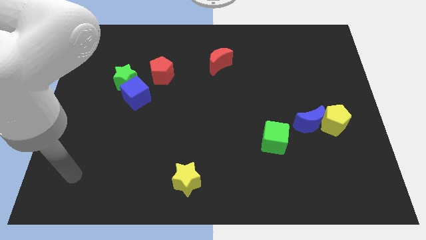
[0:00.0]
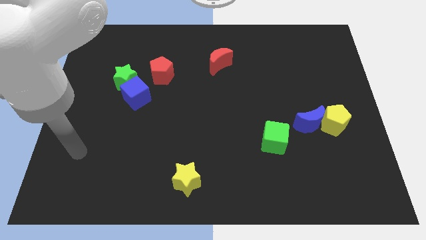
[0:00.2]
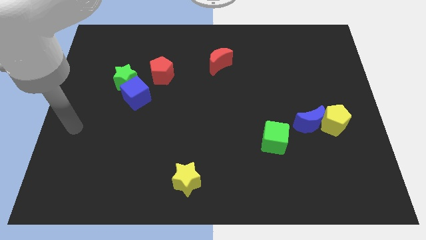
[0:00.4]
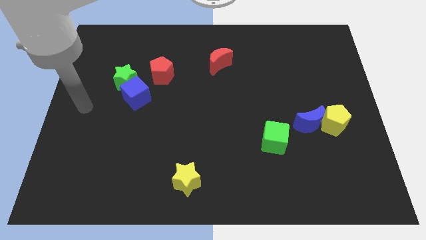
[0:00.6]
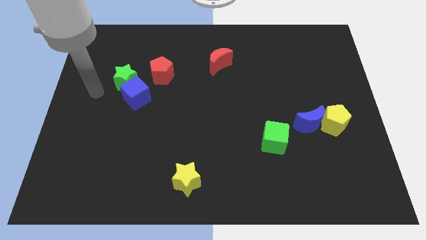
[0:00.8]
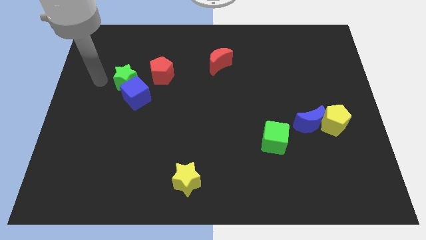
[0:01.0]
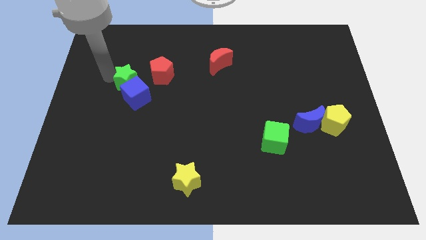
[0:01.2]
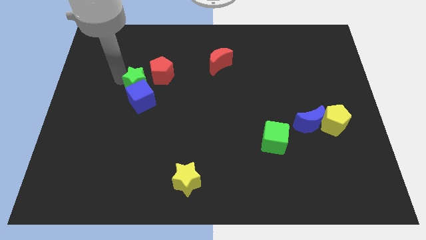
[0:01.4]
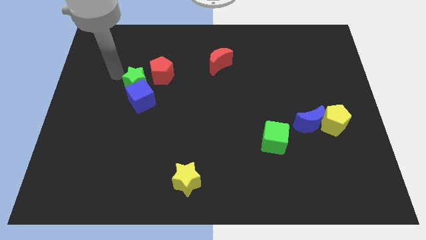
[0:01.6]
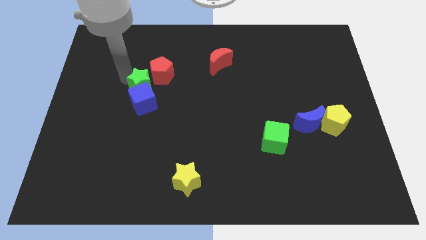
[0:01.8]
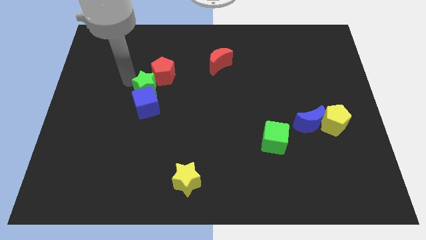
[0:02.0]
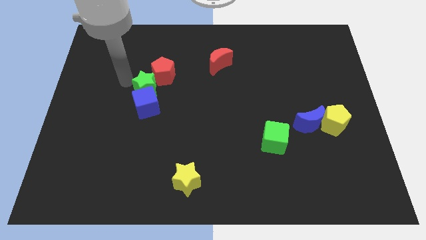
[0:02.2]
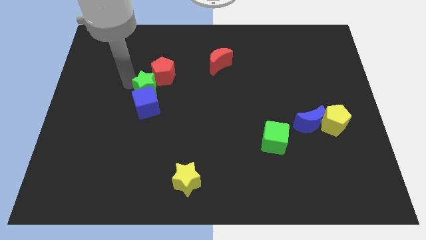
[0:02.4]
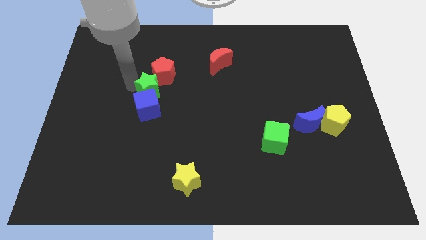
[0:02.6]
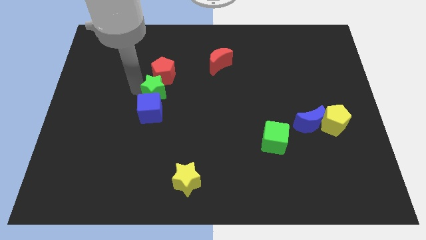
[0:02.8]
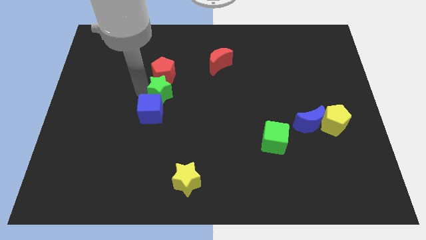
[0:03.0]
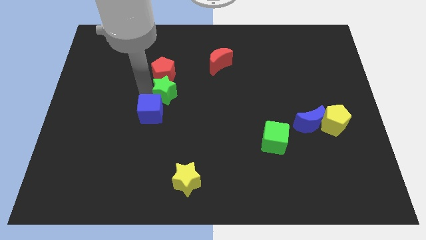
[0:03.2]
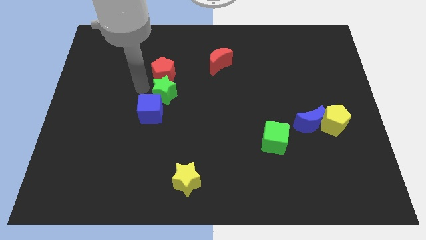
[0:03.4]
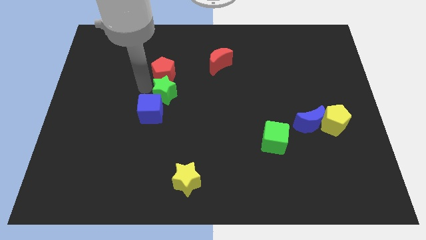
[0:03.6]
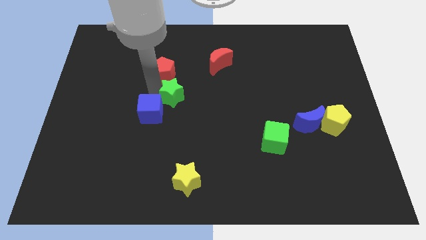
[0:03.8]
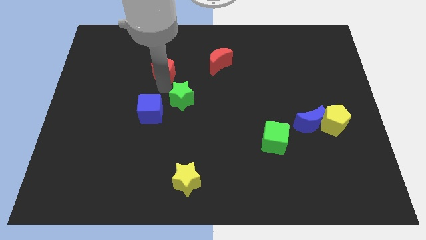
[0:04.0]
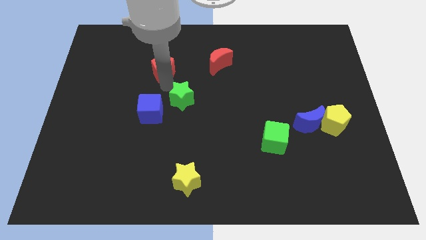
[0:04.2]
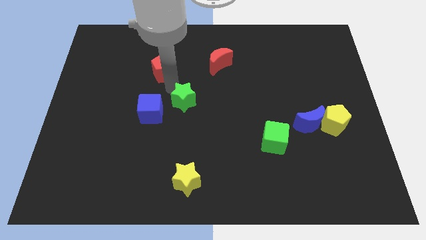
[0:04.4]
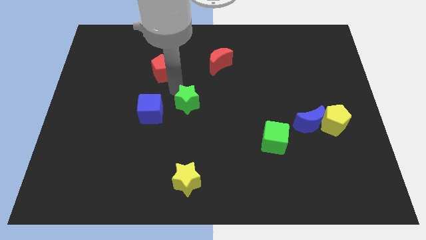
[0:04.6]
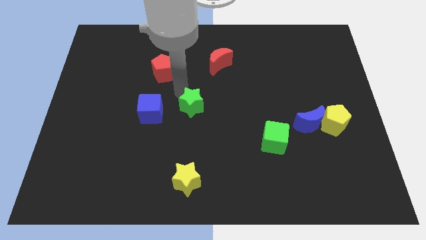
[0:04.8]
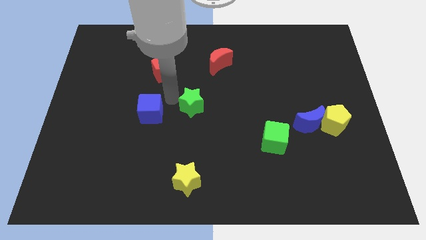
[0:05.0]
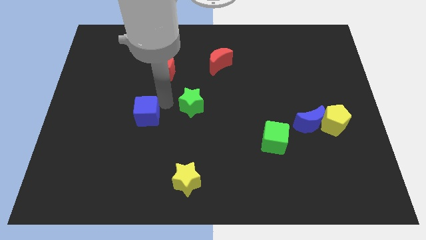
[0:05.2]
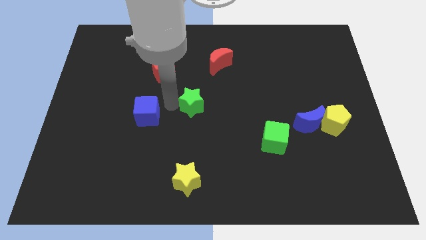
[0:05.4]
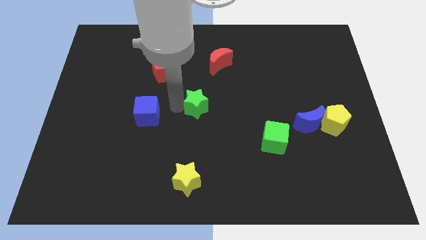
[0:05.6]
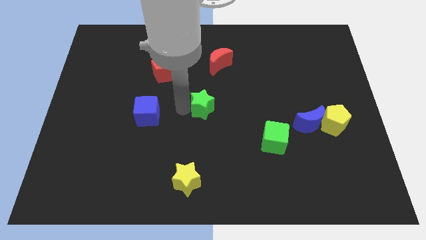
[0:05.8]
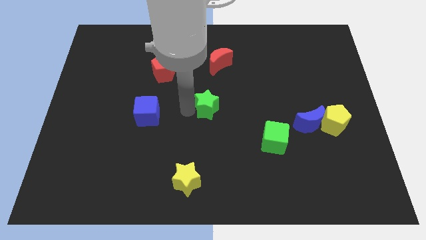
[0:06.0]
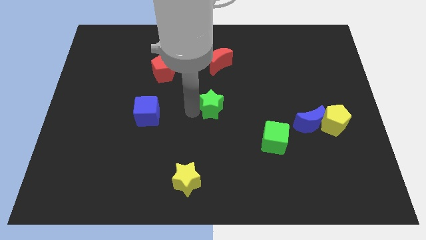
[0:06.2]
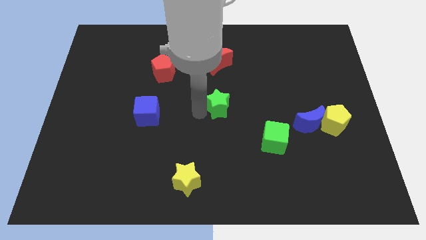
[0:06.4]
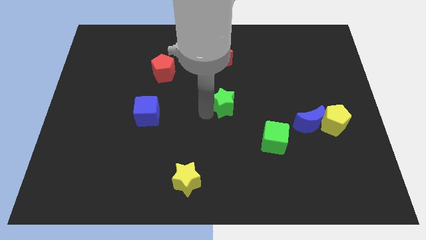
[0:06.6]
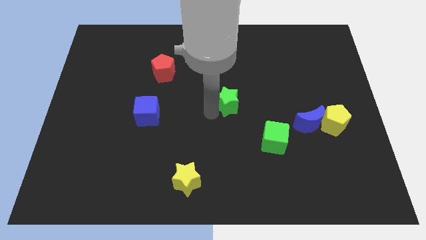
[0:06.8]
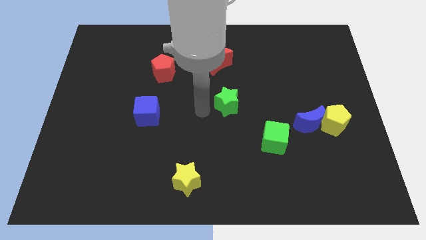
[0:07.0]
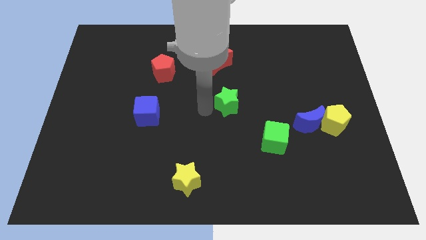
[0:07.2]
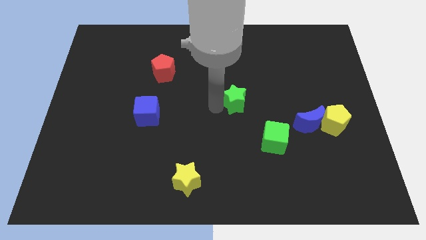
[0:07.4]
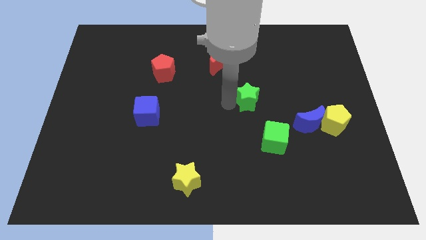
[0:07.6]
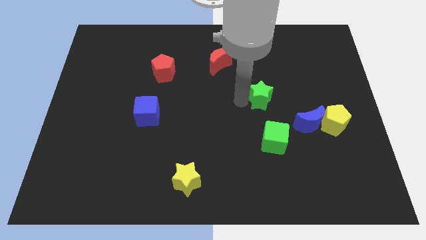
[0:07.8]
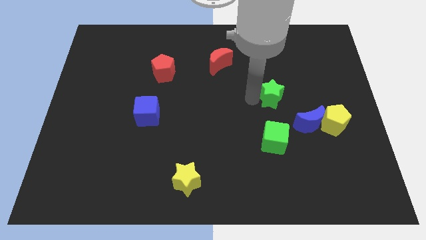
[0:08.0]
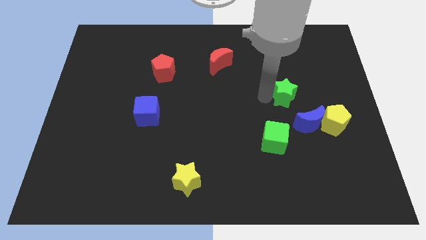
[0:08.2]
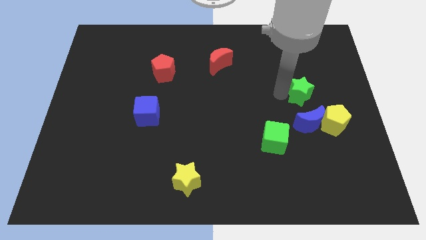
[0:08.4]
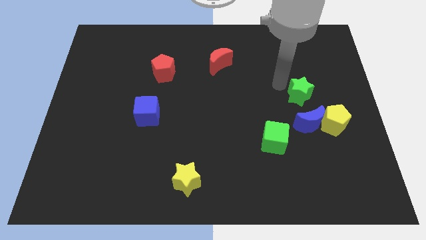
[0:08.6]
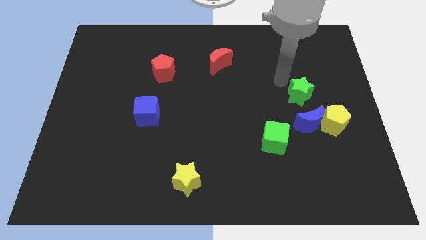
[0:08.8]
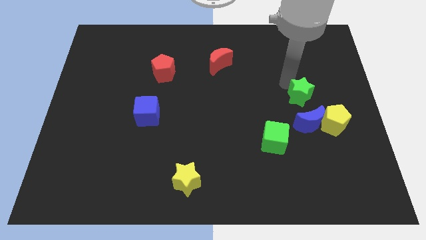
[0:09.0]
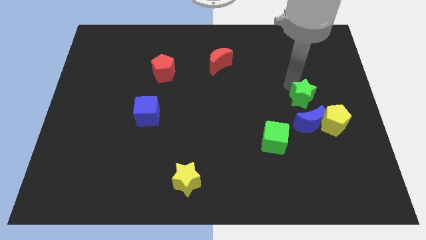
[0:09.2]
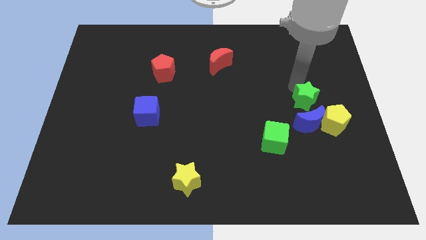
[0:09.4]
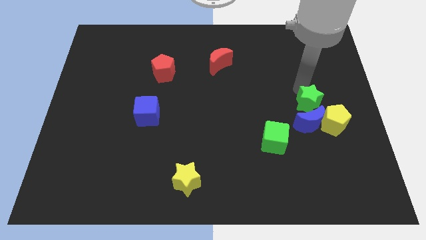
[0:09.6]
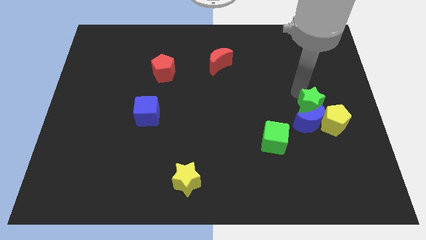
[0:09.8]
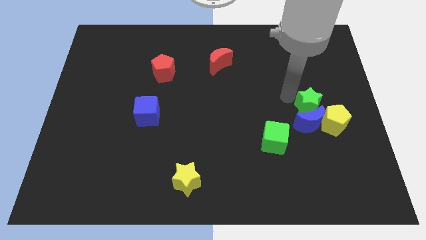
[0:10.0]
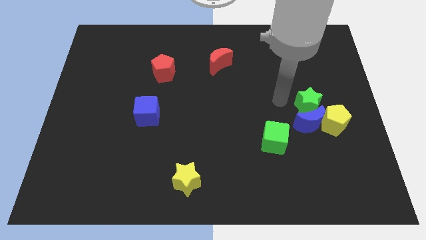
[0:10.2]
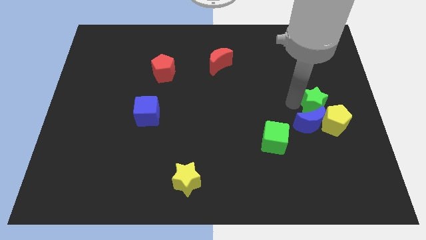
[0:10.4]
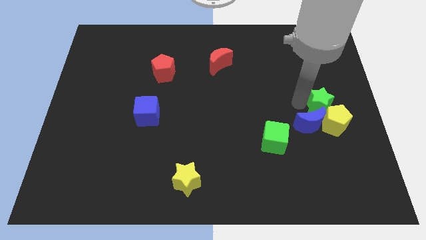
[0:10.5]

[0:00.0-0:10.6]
slide the green star to the right side of the board

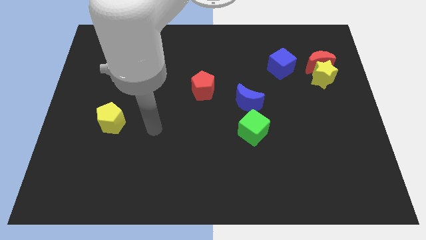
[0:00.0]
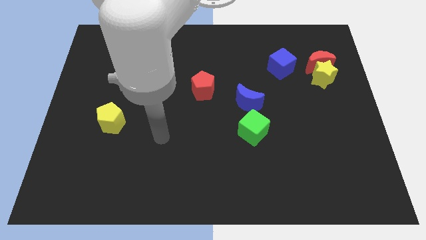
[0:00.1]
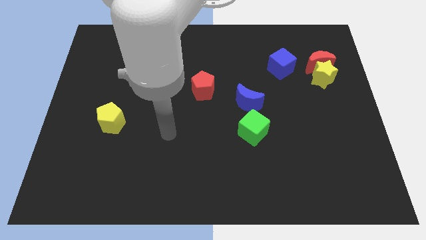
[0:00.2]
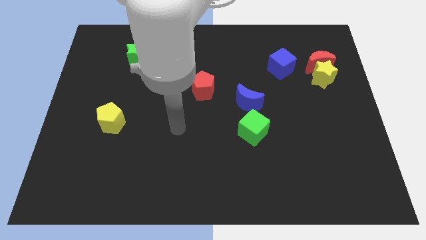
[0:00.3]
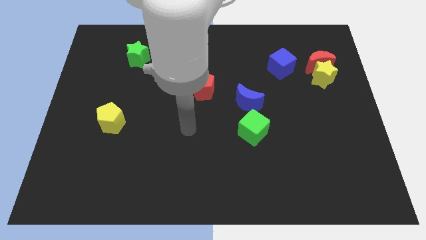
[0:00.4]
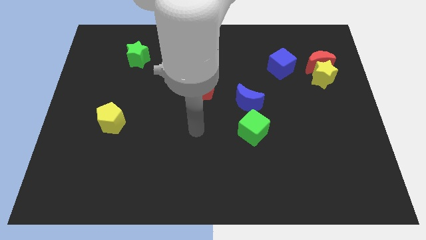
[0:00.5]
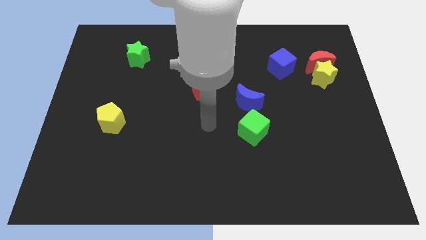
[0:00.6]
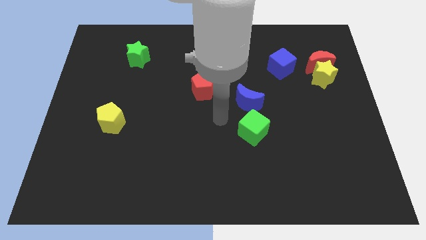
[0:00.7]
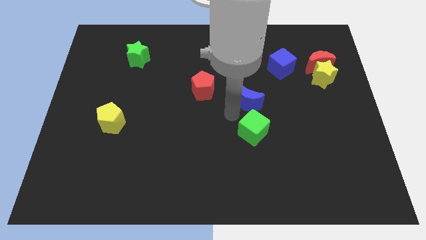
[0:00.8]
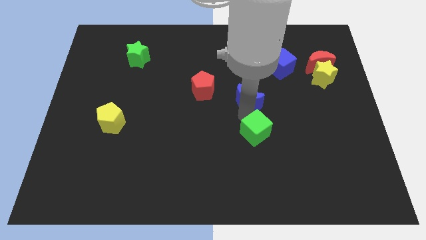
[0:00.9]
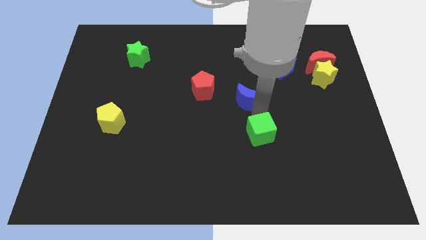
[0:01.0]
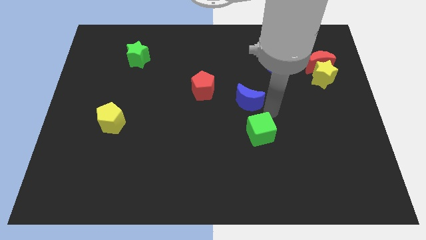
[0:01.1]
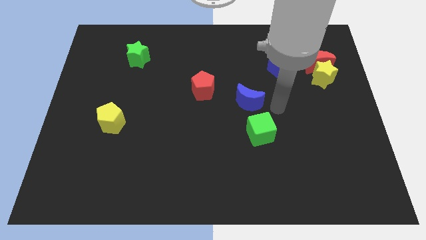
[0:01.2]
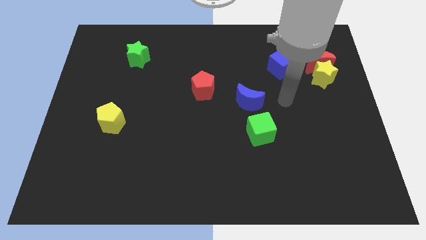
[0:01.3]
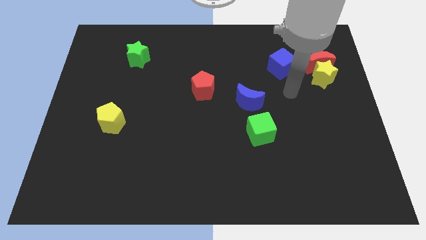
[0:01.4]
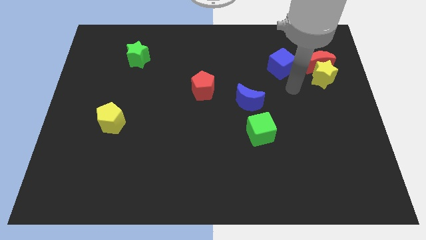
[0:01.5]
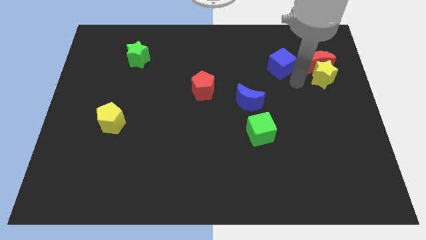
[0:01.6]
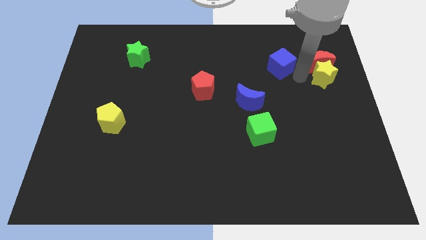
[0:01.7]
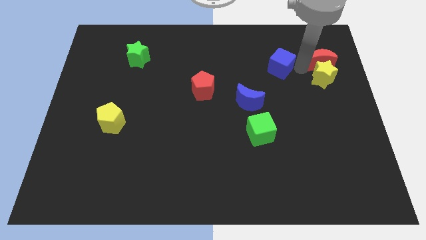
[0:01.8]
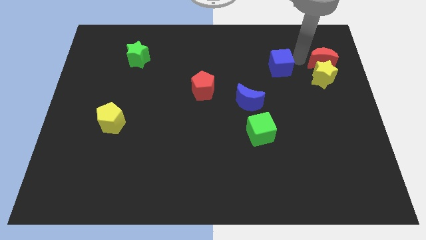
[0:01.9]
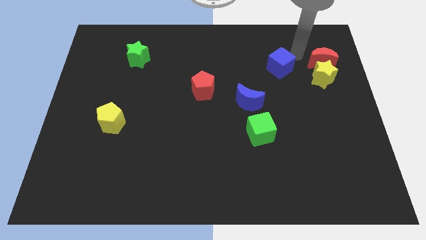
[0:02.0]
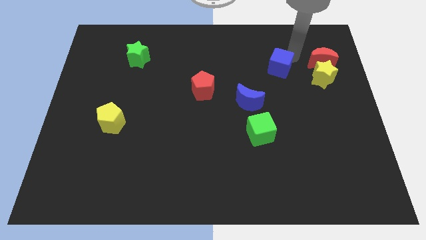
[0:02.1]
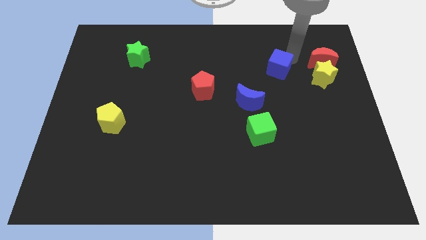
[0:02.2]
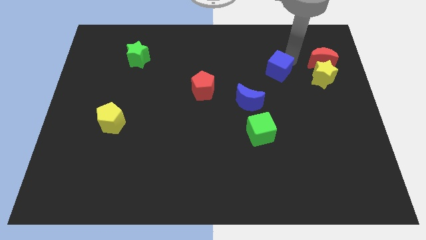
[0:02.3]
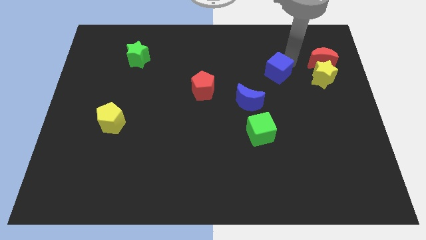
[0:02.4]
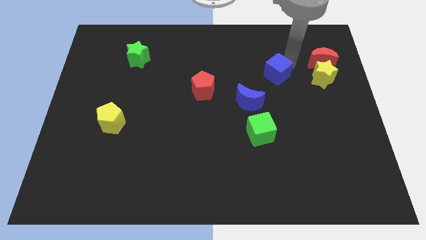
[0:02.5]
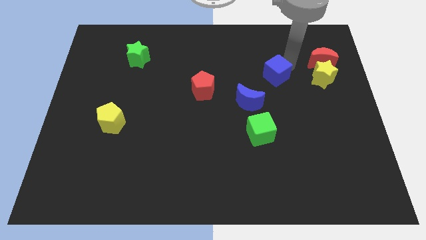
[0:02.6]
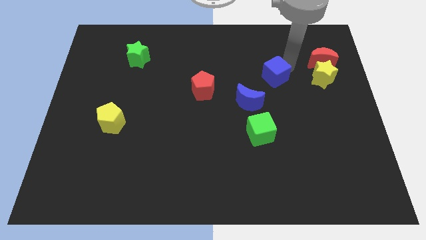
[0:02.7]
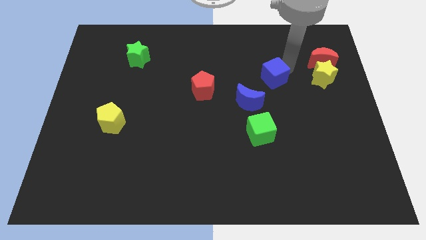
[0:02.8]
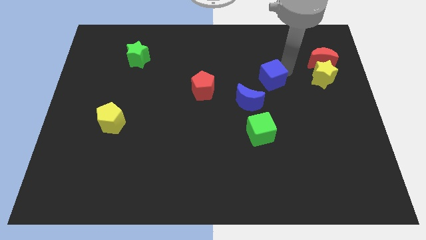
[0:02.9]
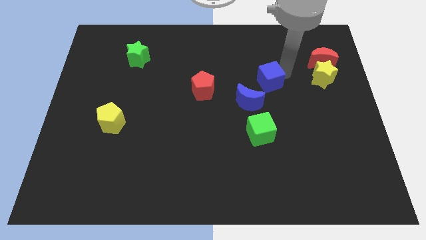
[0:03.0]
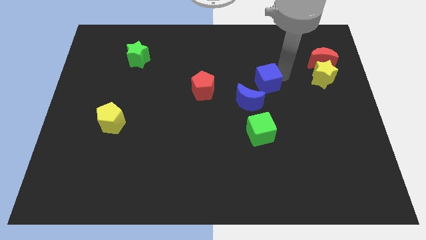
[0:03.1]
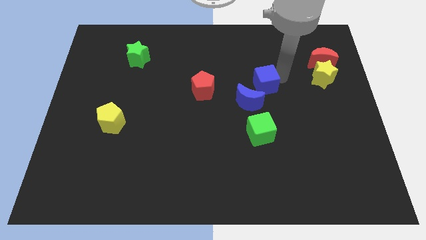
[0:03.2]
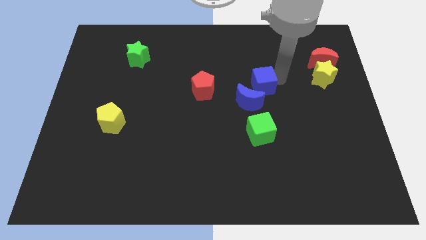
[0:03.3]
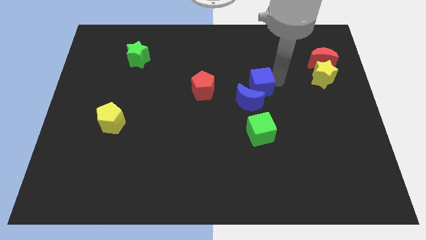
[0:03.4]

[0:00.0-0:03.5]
push the blue cube to the center of the board
